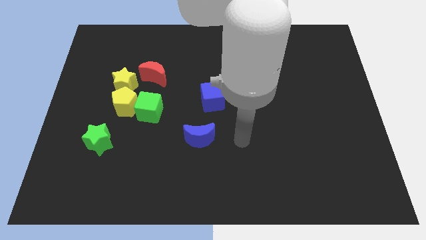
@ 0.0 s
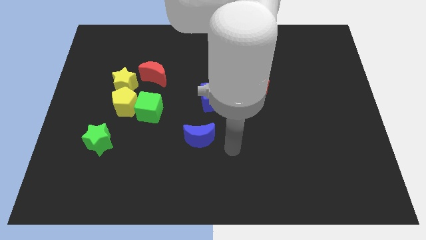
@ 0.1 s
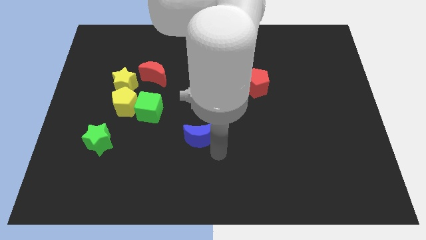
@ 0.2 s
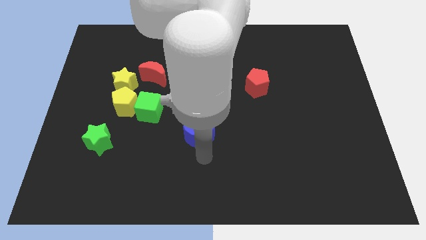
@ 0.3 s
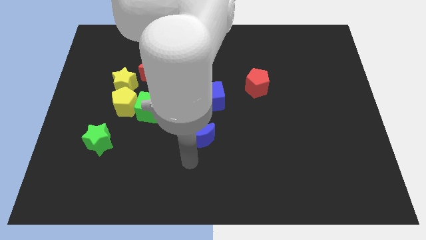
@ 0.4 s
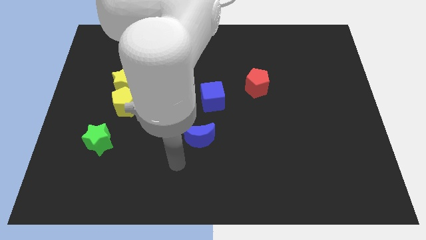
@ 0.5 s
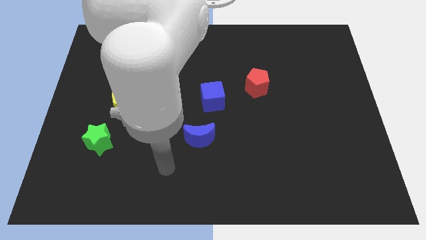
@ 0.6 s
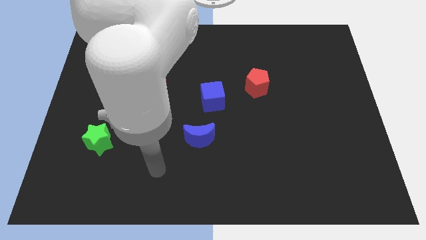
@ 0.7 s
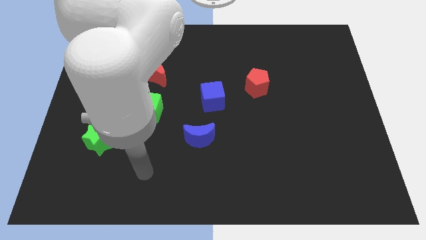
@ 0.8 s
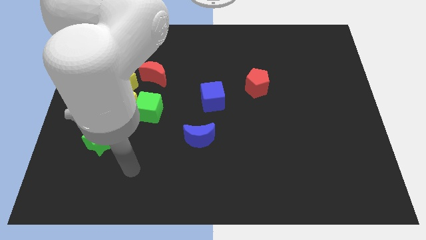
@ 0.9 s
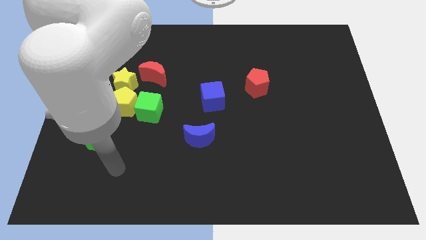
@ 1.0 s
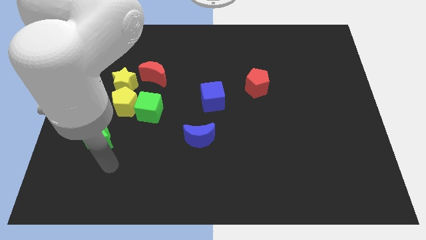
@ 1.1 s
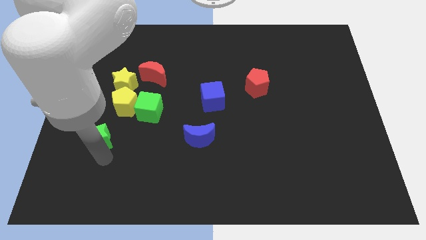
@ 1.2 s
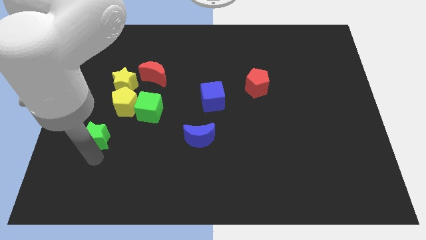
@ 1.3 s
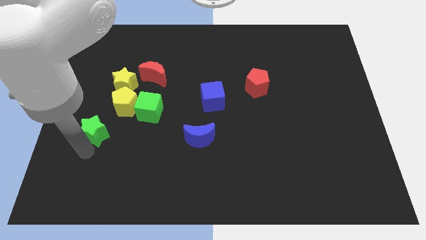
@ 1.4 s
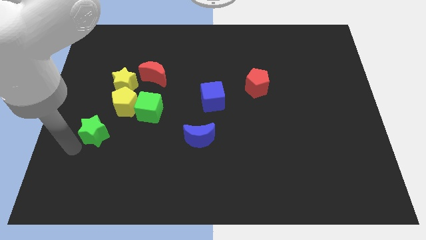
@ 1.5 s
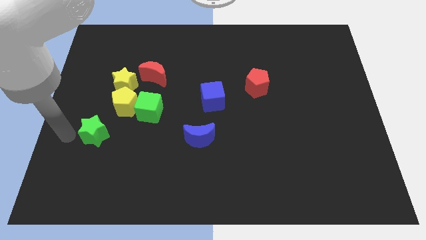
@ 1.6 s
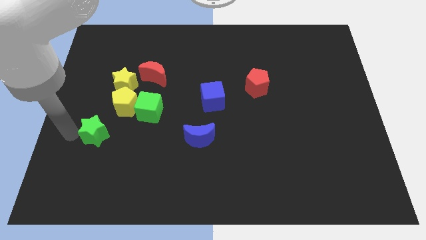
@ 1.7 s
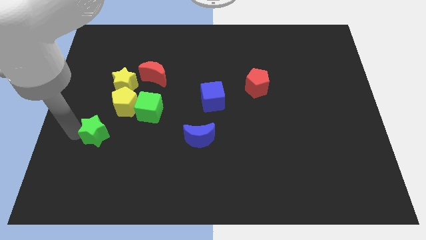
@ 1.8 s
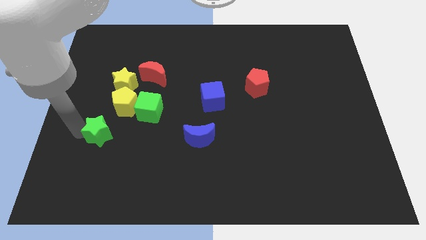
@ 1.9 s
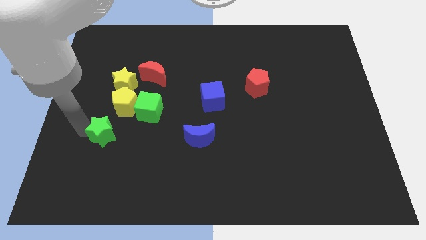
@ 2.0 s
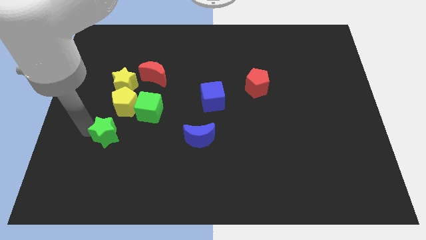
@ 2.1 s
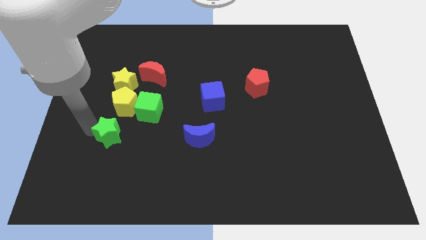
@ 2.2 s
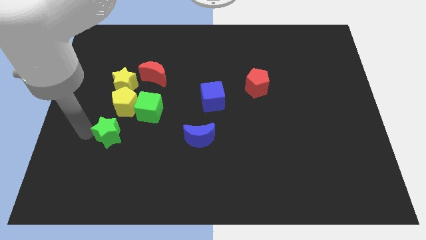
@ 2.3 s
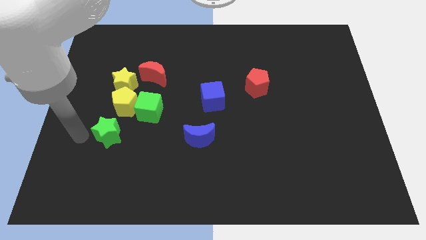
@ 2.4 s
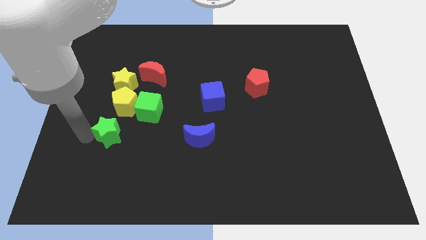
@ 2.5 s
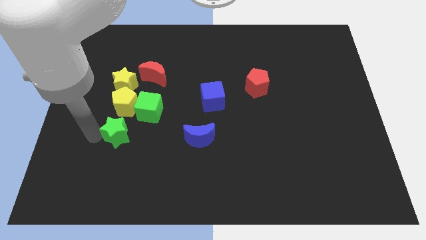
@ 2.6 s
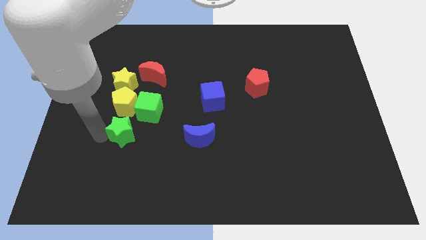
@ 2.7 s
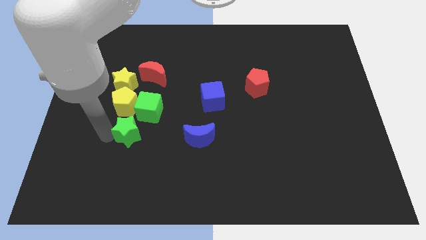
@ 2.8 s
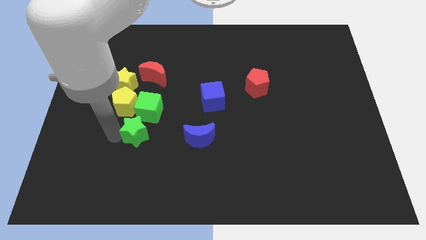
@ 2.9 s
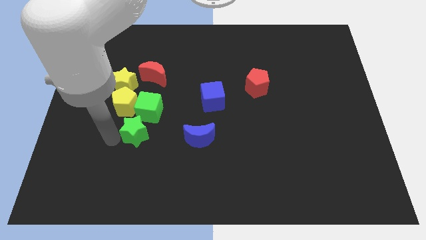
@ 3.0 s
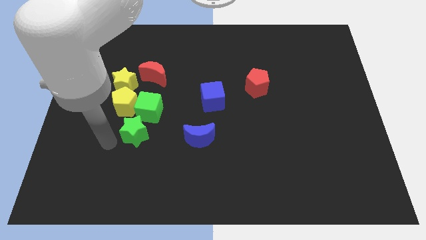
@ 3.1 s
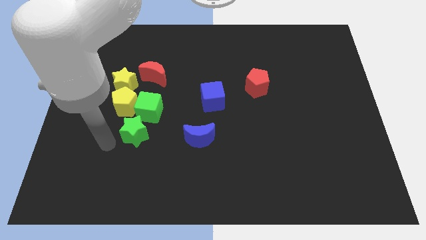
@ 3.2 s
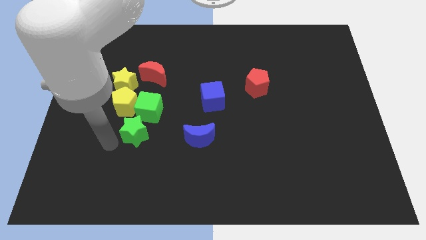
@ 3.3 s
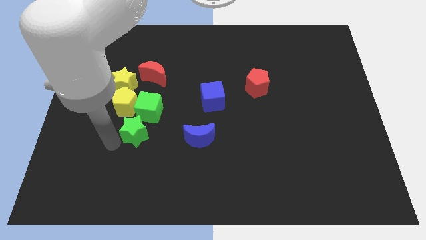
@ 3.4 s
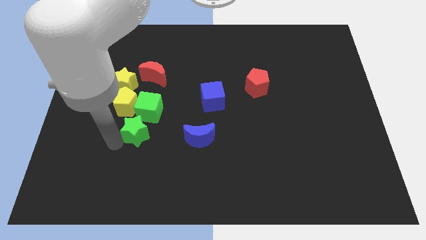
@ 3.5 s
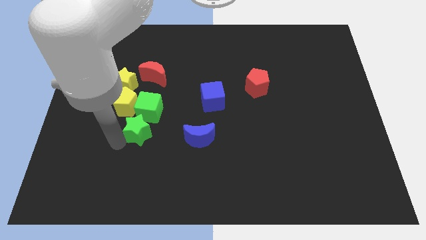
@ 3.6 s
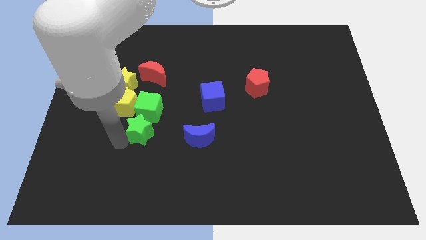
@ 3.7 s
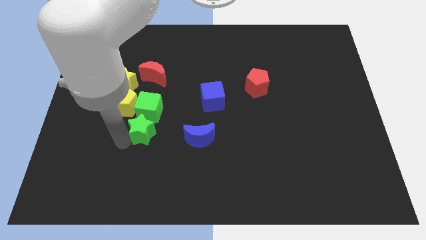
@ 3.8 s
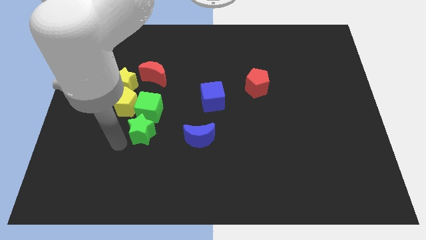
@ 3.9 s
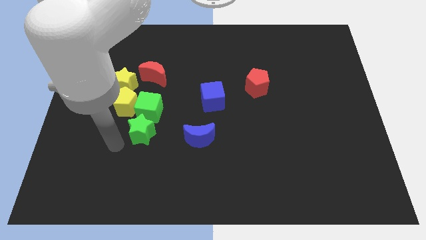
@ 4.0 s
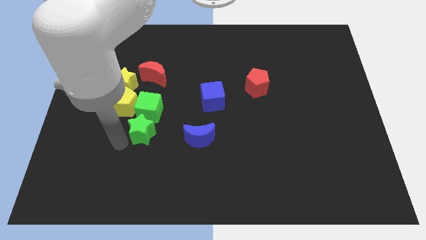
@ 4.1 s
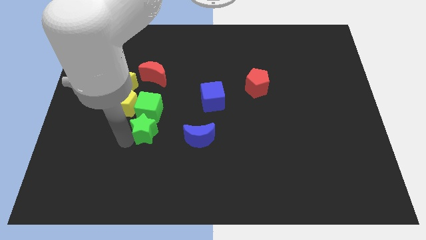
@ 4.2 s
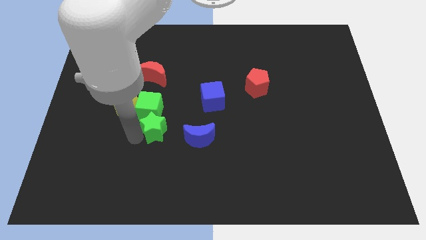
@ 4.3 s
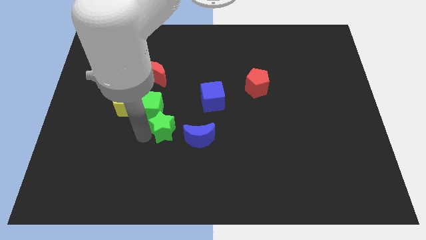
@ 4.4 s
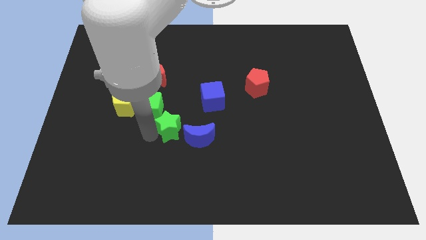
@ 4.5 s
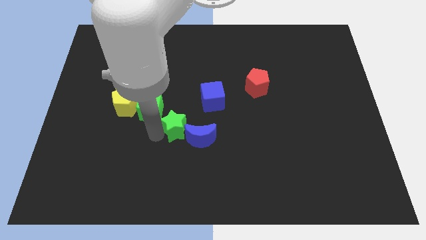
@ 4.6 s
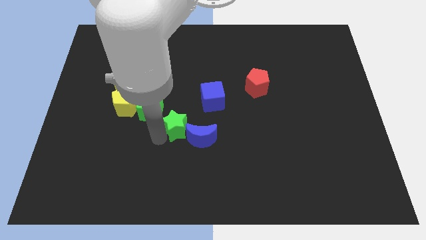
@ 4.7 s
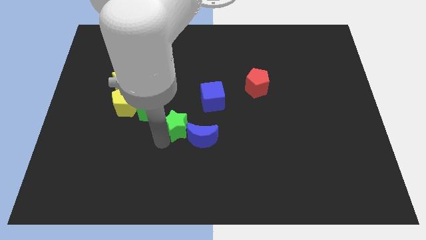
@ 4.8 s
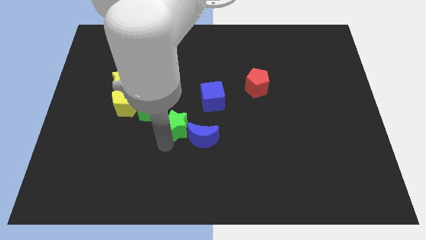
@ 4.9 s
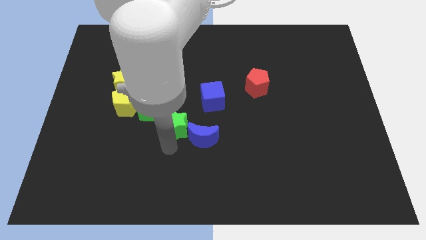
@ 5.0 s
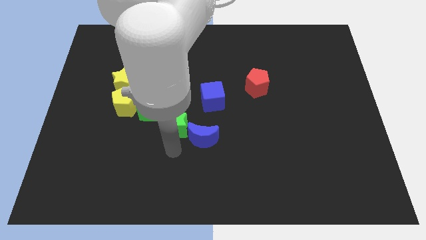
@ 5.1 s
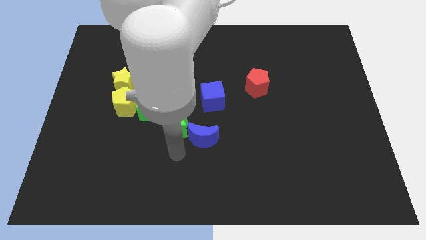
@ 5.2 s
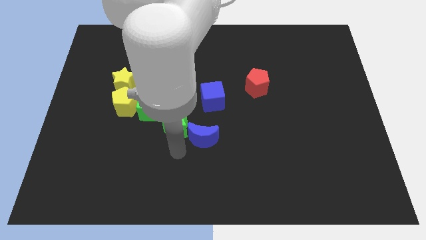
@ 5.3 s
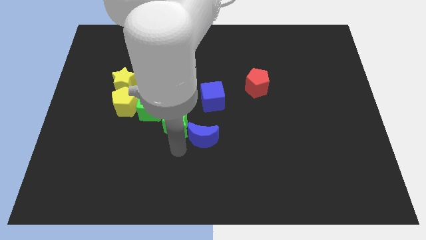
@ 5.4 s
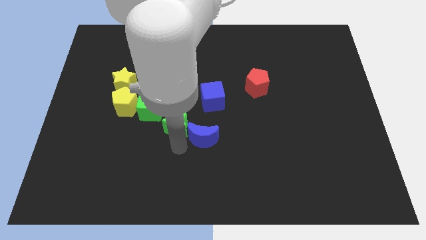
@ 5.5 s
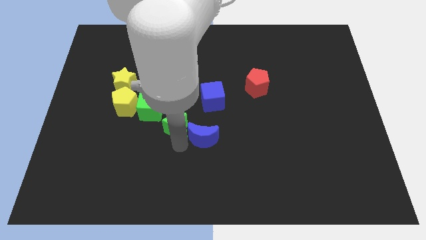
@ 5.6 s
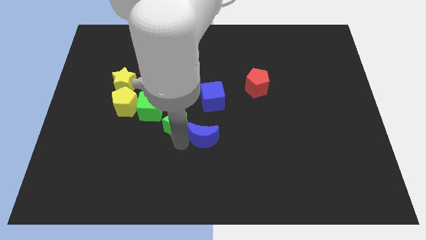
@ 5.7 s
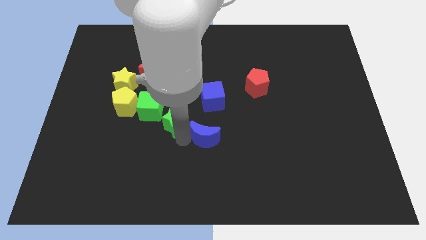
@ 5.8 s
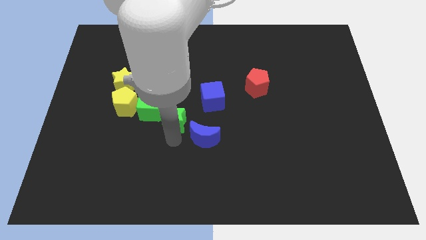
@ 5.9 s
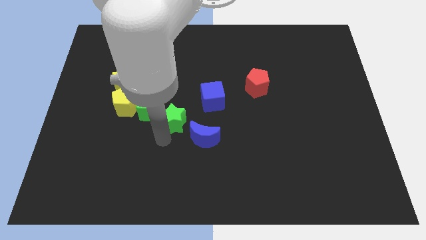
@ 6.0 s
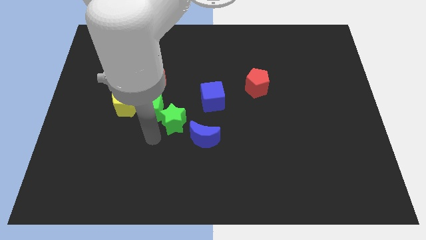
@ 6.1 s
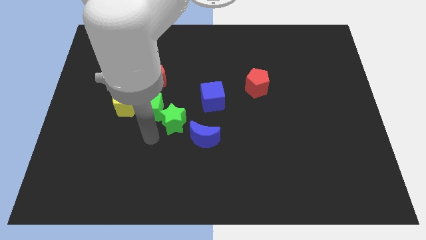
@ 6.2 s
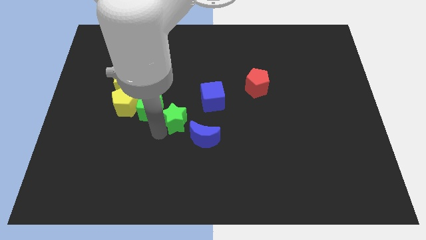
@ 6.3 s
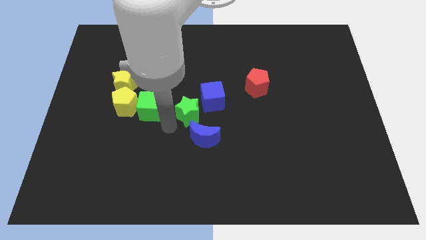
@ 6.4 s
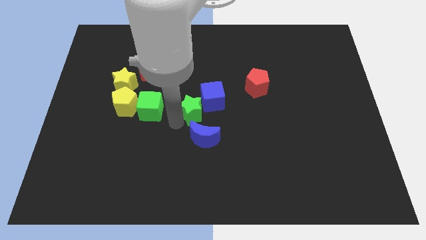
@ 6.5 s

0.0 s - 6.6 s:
put the green star to the blue cube

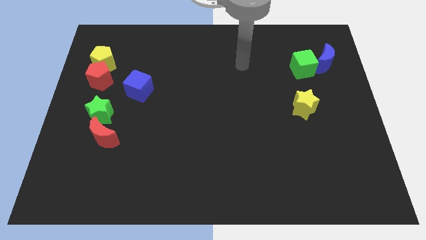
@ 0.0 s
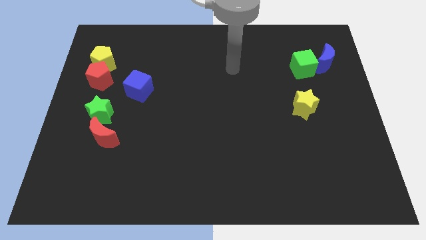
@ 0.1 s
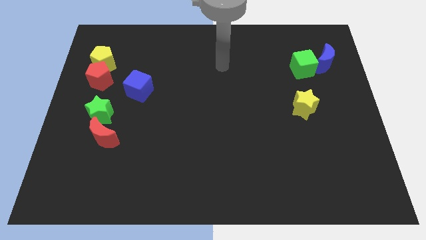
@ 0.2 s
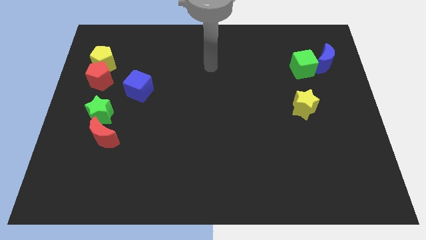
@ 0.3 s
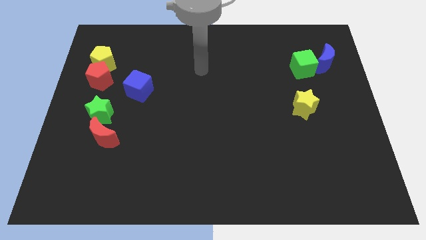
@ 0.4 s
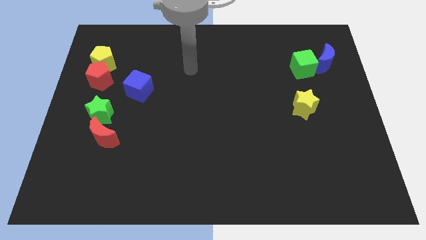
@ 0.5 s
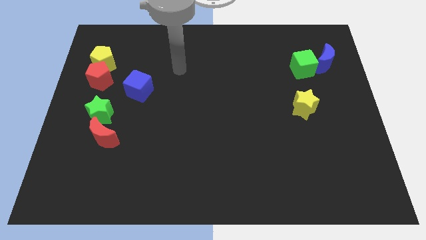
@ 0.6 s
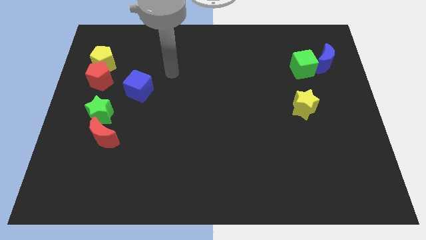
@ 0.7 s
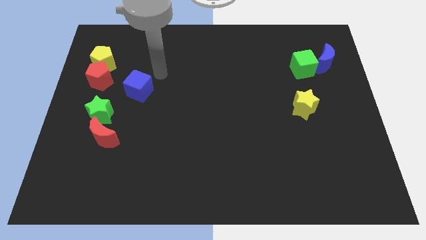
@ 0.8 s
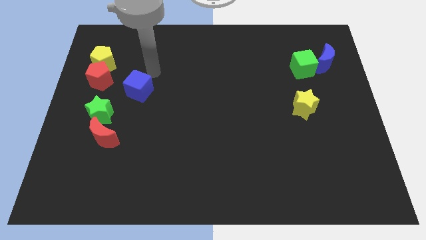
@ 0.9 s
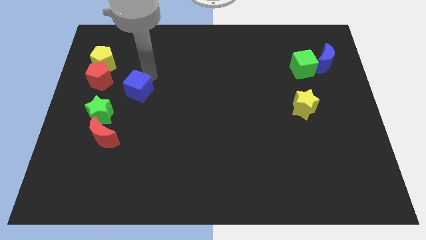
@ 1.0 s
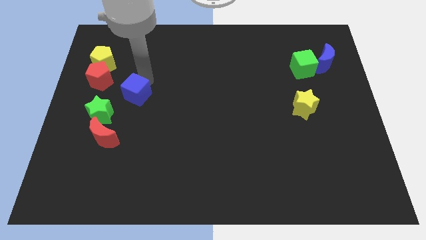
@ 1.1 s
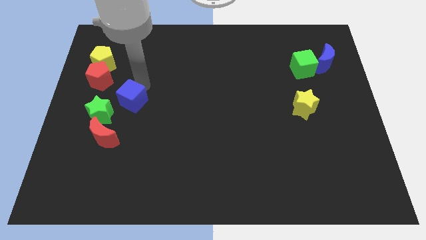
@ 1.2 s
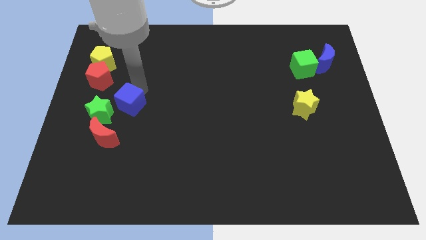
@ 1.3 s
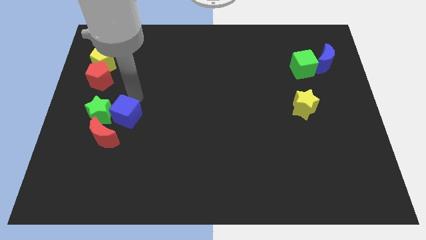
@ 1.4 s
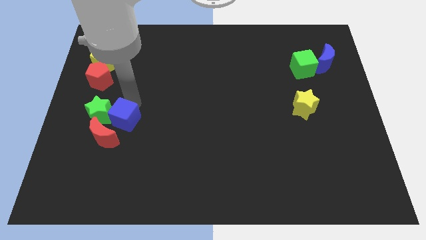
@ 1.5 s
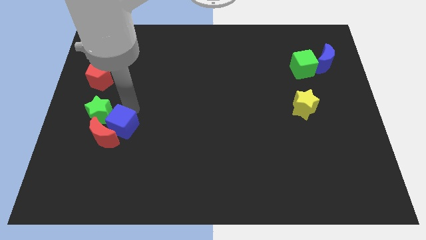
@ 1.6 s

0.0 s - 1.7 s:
put the blue cube next to the red moon
